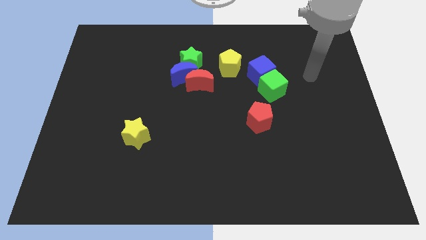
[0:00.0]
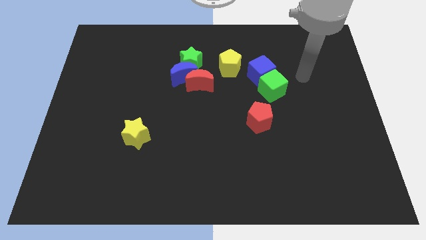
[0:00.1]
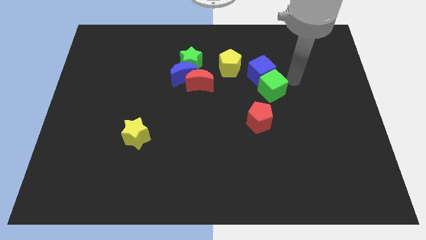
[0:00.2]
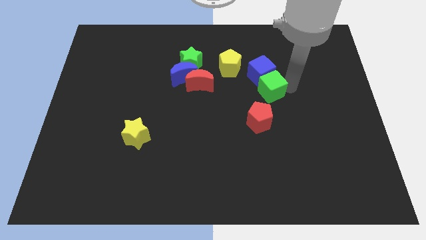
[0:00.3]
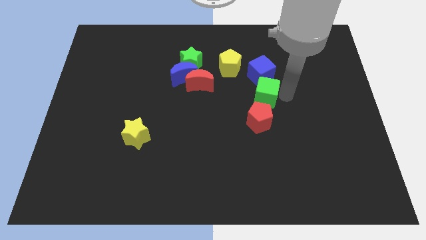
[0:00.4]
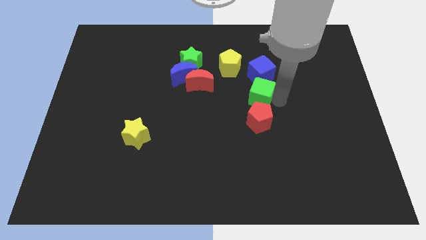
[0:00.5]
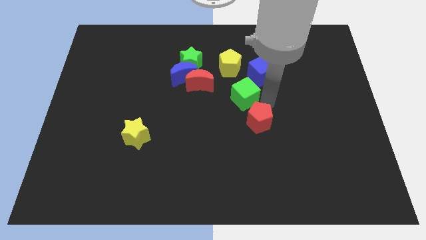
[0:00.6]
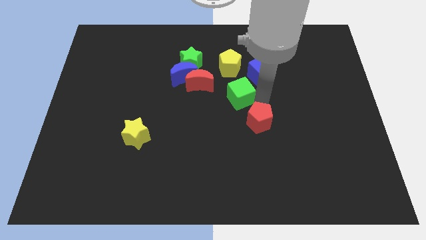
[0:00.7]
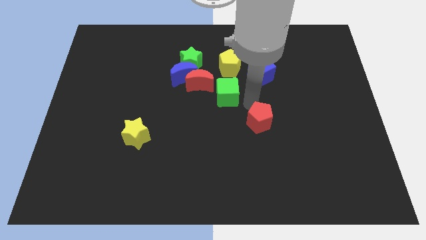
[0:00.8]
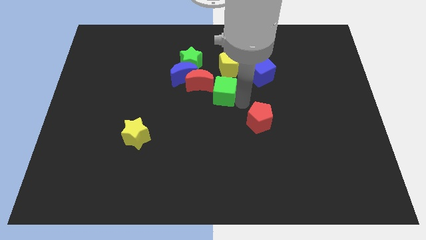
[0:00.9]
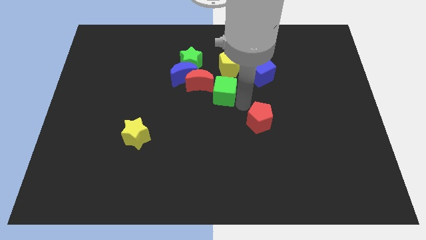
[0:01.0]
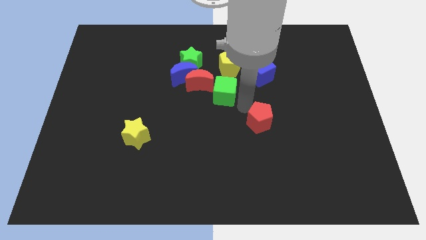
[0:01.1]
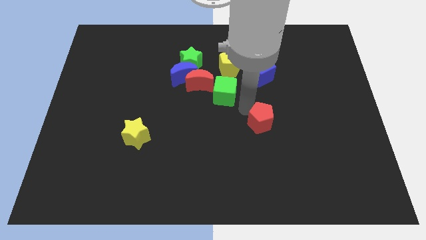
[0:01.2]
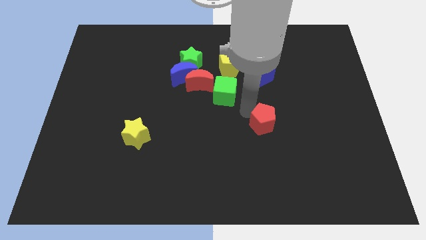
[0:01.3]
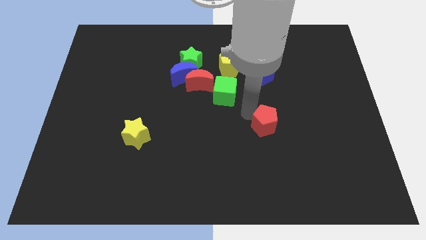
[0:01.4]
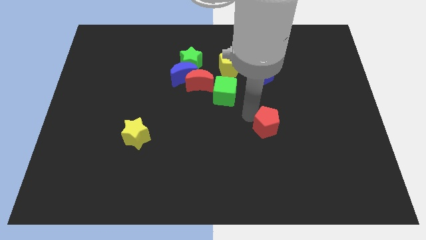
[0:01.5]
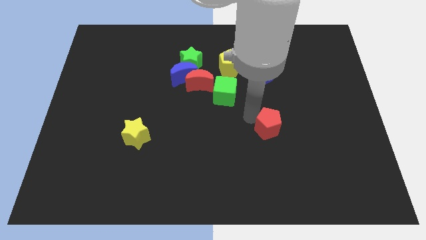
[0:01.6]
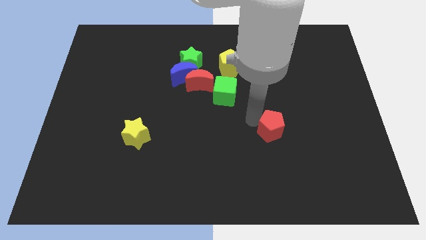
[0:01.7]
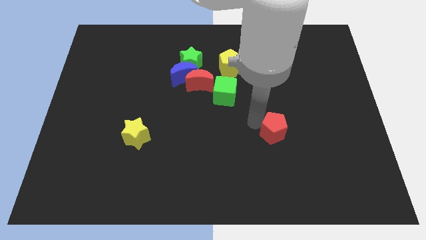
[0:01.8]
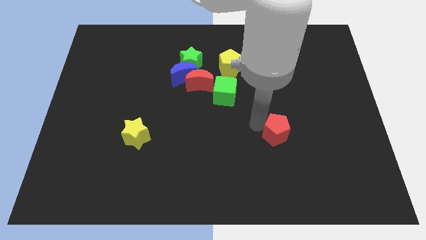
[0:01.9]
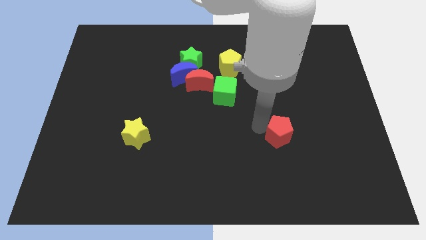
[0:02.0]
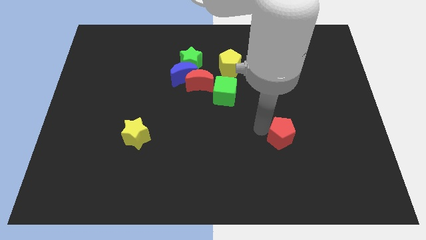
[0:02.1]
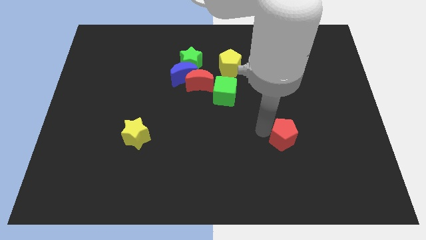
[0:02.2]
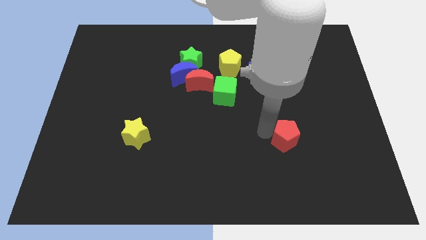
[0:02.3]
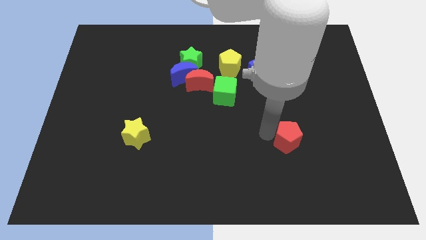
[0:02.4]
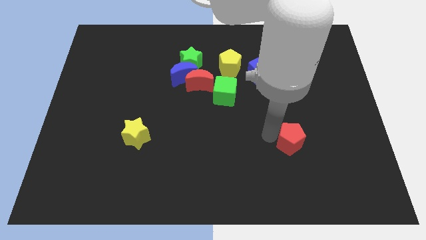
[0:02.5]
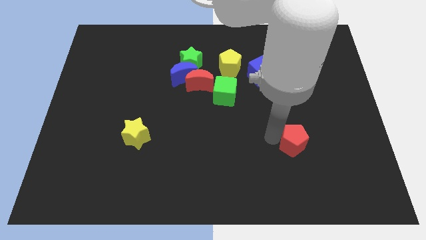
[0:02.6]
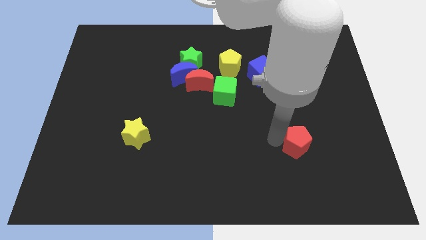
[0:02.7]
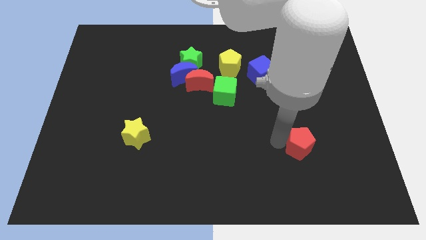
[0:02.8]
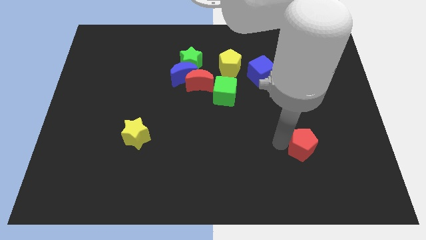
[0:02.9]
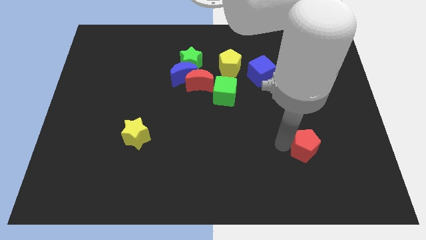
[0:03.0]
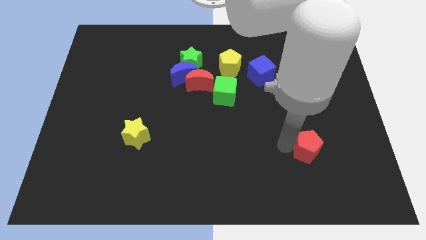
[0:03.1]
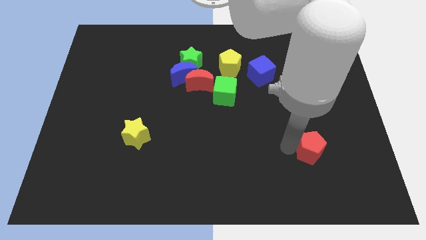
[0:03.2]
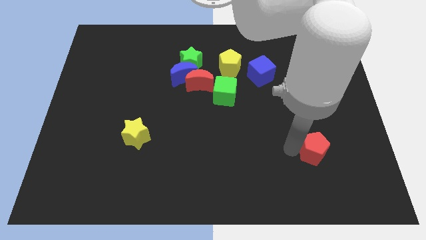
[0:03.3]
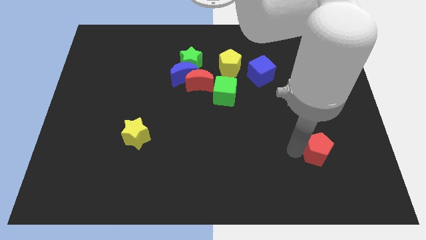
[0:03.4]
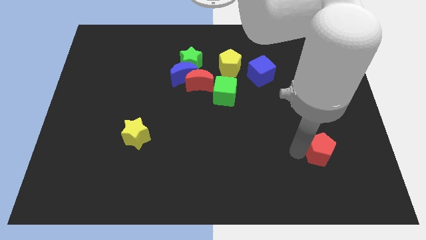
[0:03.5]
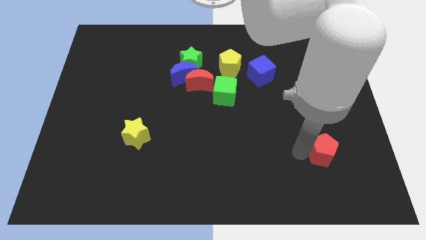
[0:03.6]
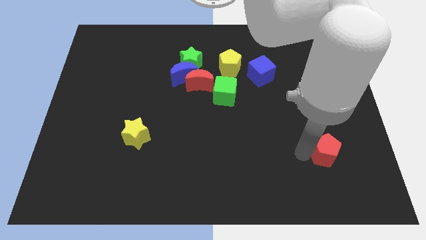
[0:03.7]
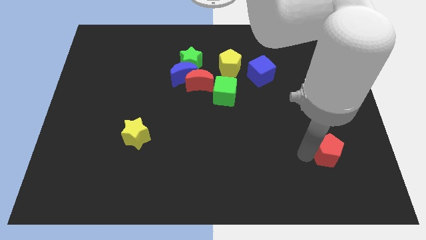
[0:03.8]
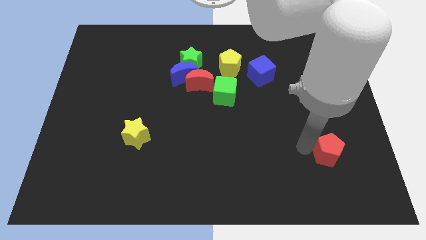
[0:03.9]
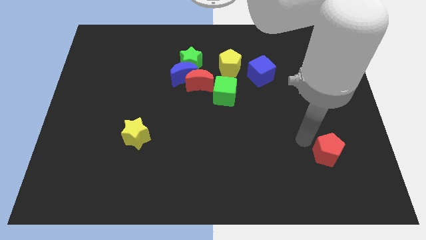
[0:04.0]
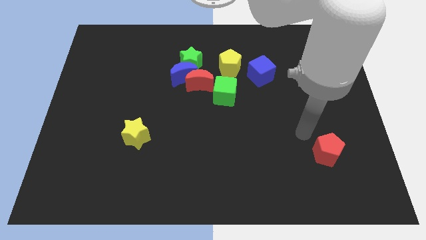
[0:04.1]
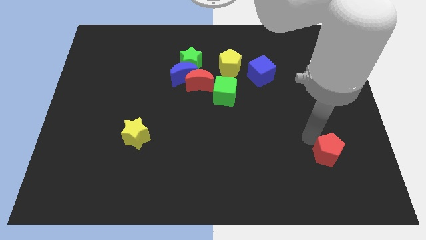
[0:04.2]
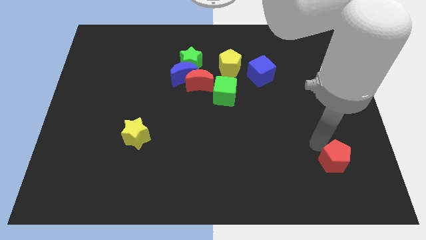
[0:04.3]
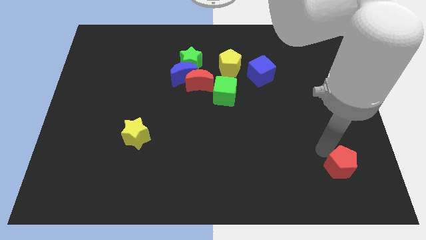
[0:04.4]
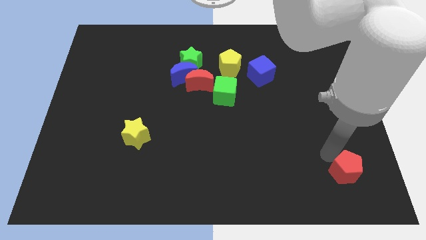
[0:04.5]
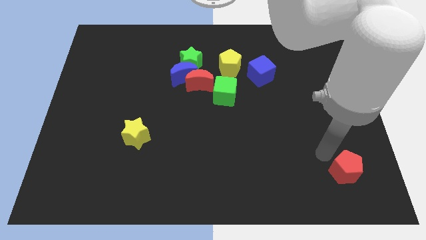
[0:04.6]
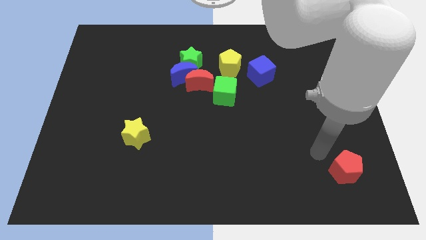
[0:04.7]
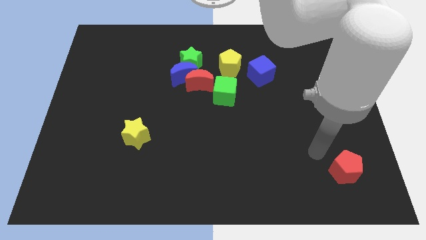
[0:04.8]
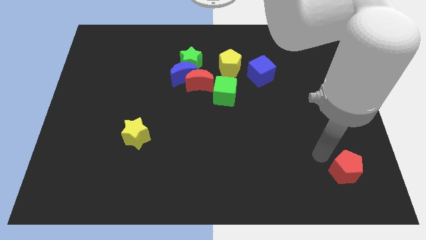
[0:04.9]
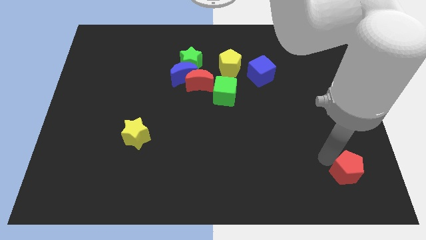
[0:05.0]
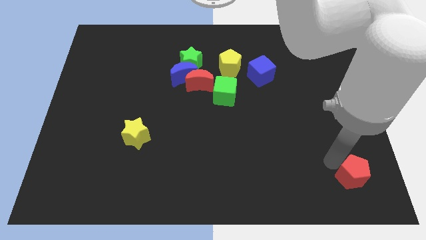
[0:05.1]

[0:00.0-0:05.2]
put the red pentagon to the lower right corner

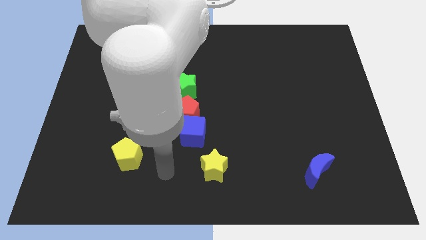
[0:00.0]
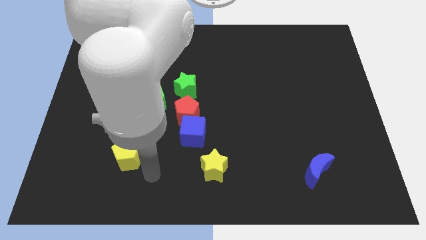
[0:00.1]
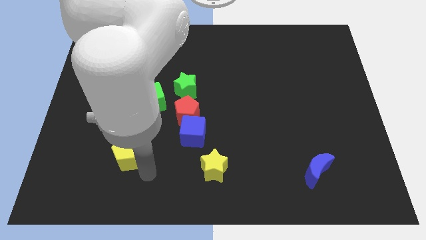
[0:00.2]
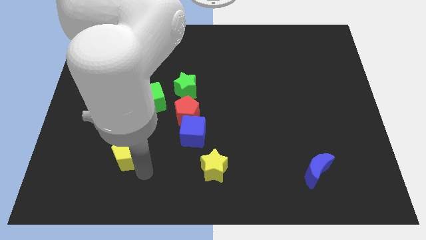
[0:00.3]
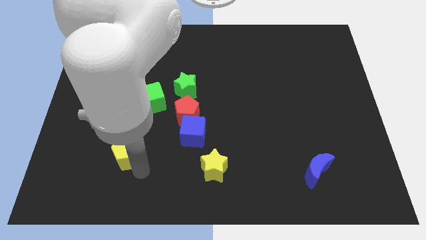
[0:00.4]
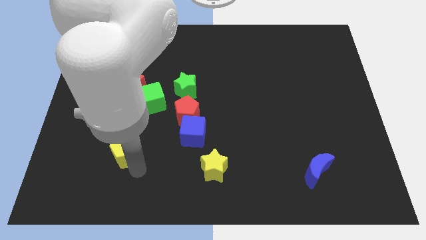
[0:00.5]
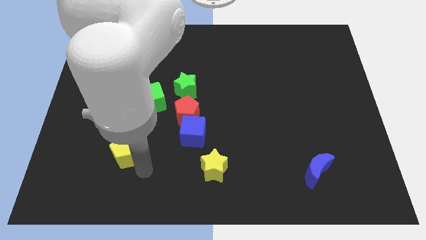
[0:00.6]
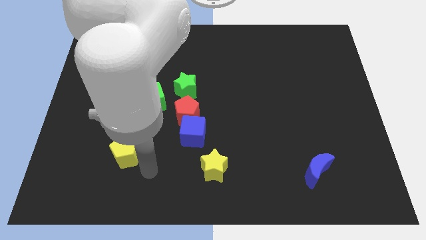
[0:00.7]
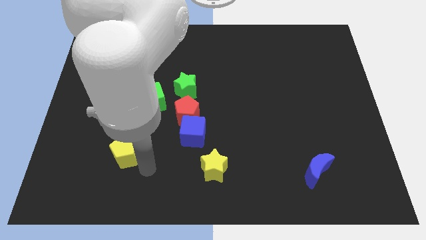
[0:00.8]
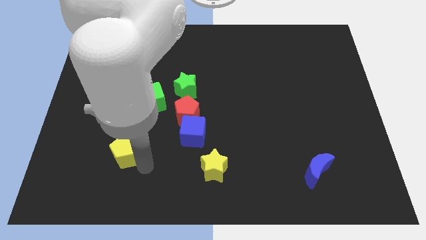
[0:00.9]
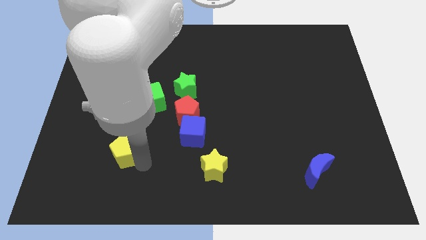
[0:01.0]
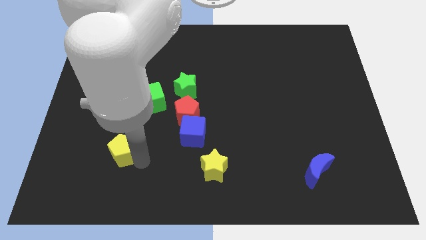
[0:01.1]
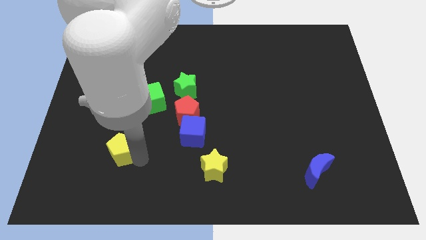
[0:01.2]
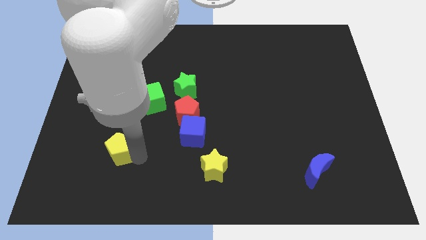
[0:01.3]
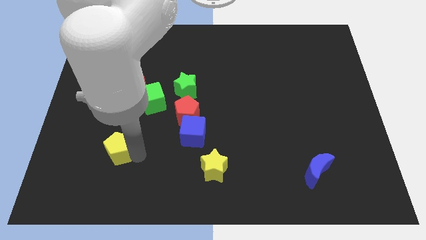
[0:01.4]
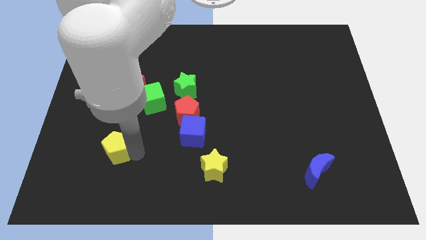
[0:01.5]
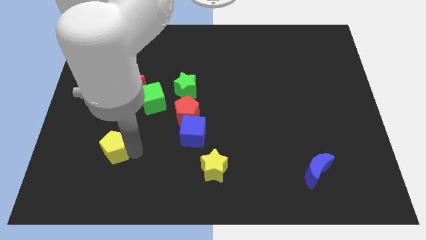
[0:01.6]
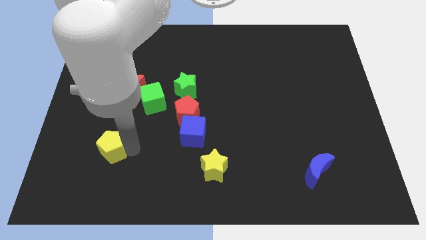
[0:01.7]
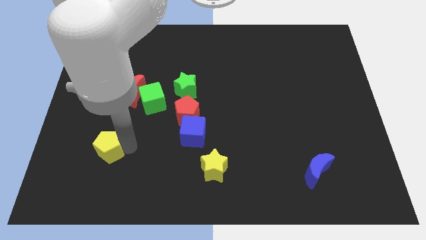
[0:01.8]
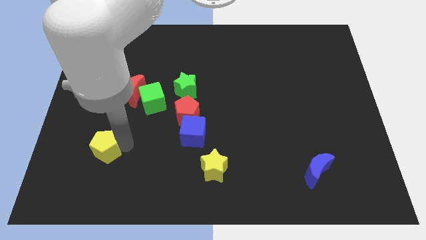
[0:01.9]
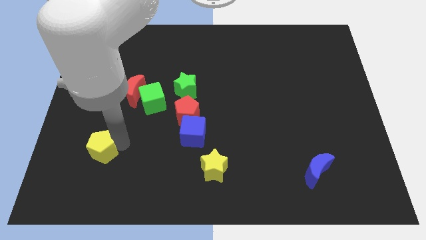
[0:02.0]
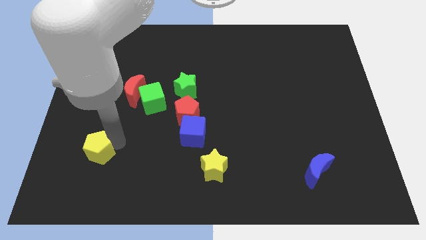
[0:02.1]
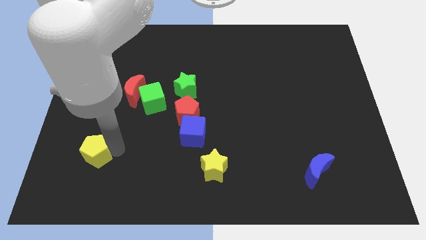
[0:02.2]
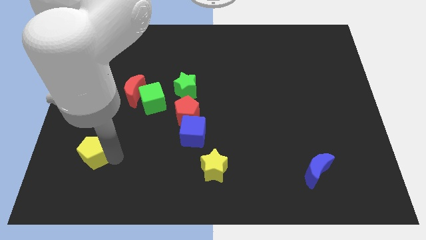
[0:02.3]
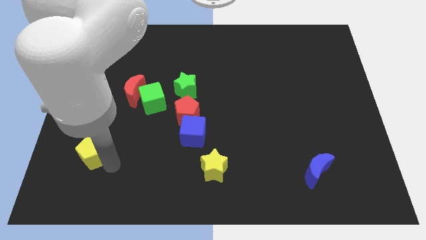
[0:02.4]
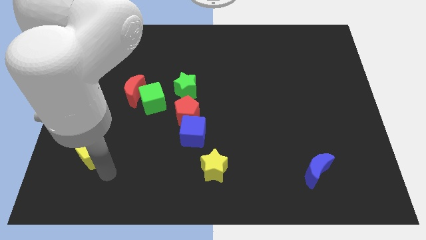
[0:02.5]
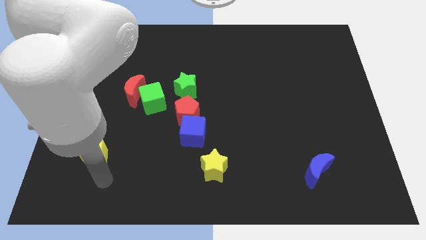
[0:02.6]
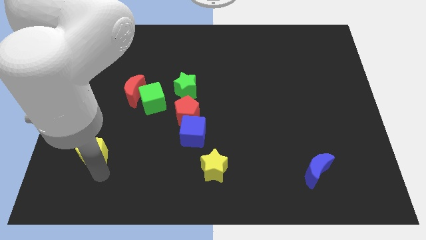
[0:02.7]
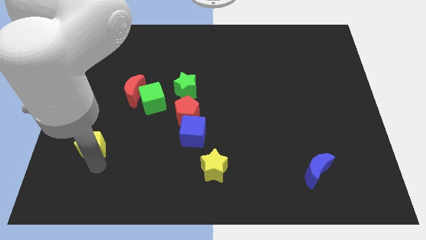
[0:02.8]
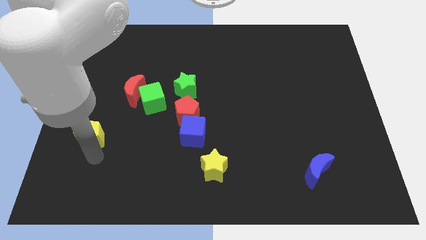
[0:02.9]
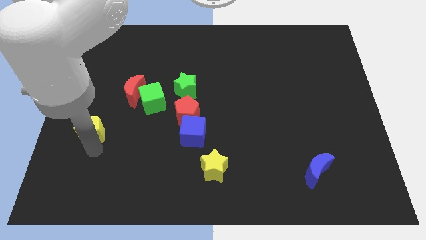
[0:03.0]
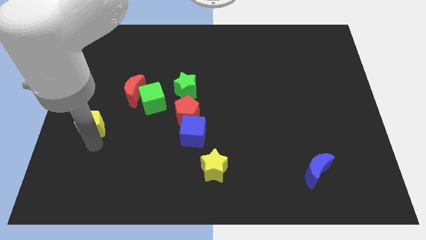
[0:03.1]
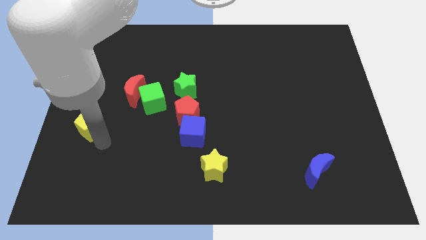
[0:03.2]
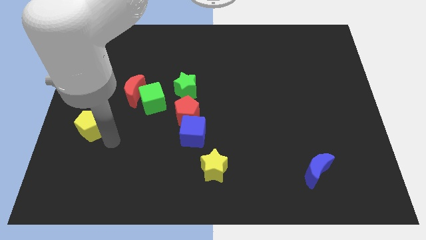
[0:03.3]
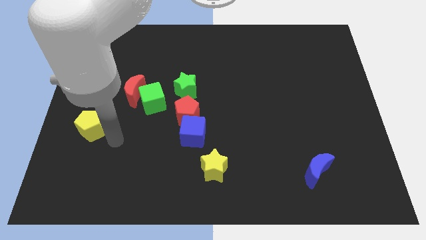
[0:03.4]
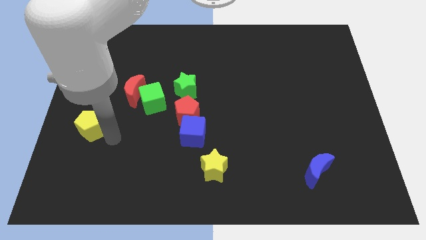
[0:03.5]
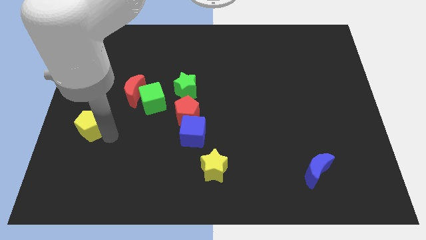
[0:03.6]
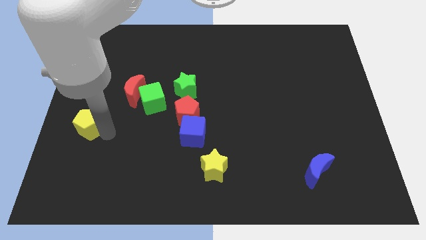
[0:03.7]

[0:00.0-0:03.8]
put the yellow pentagon to the left side of the board
